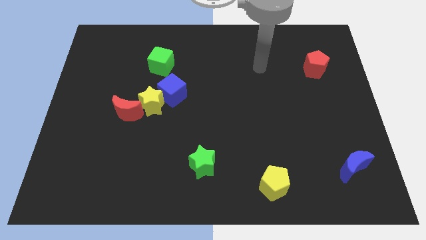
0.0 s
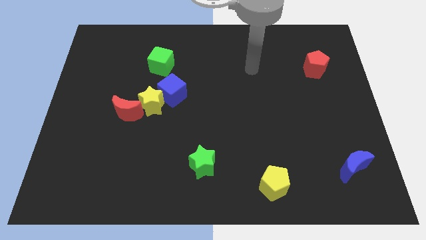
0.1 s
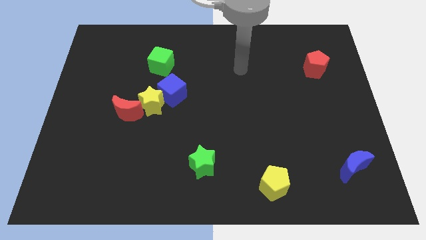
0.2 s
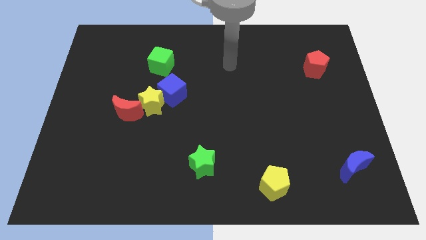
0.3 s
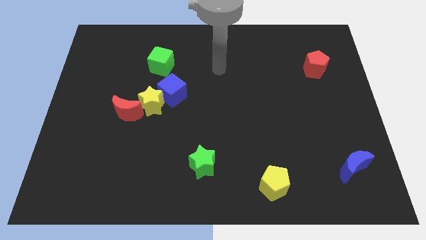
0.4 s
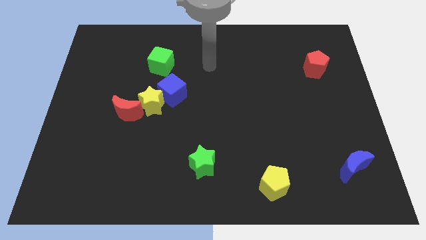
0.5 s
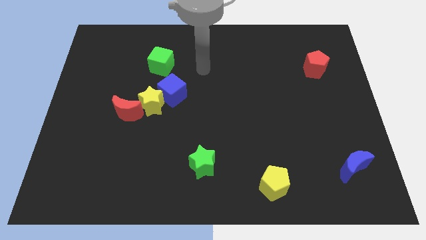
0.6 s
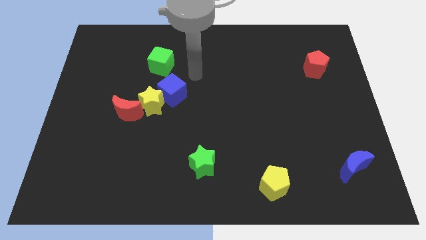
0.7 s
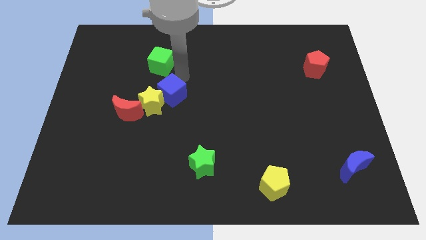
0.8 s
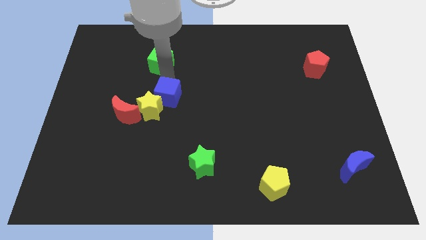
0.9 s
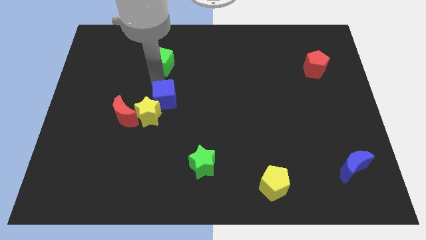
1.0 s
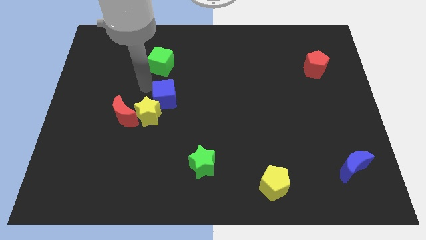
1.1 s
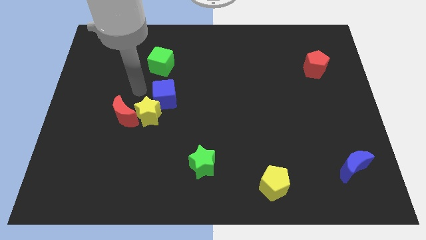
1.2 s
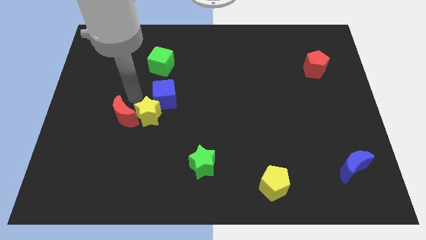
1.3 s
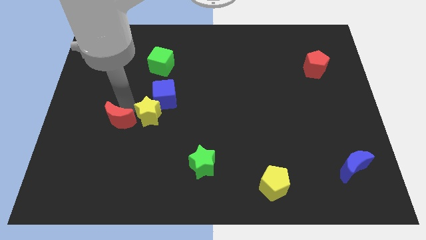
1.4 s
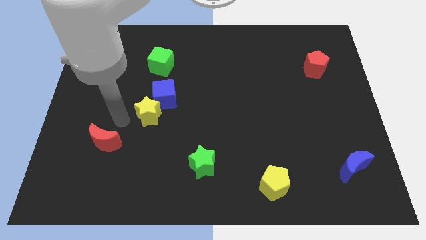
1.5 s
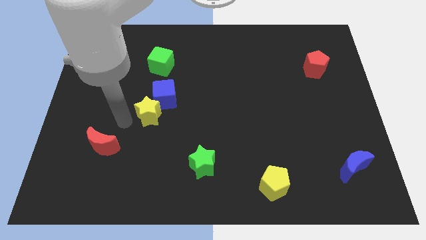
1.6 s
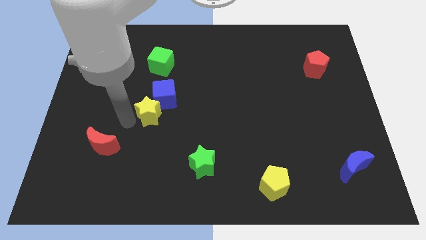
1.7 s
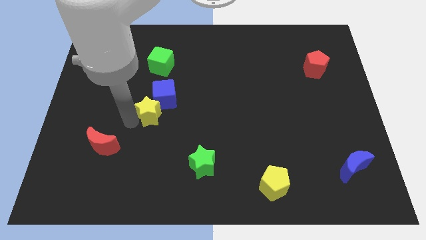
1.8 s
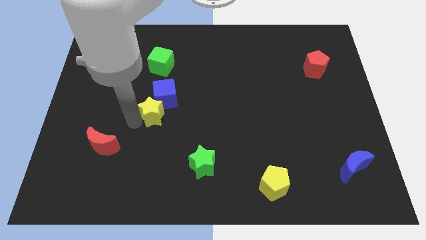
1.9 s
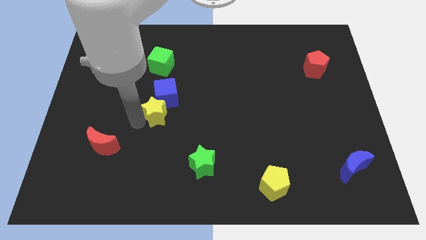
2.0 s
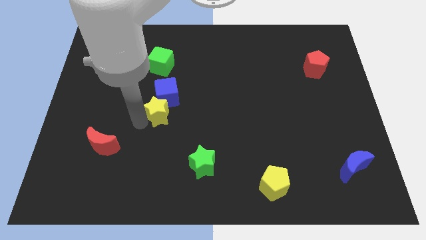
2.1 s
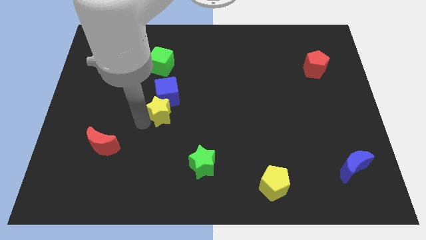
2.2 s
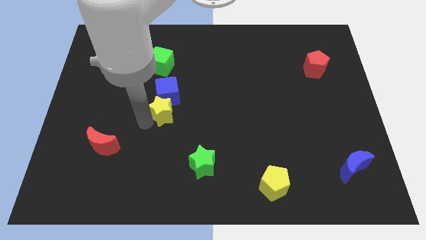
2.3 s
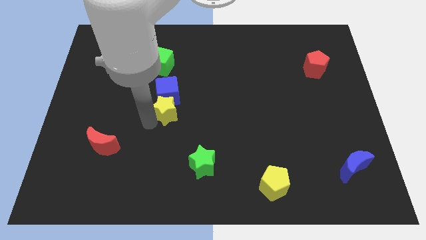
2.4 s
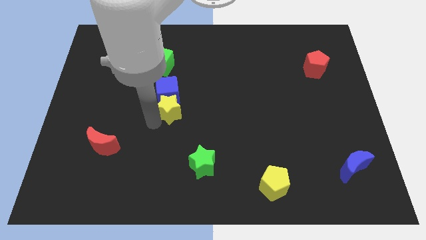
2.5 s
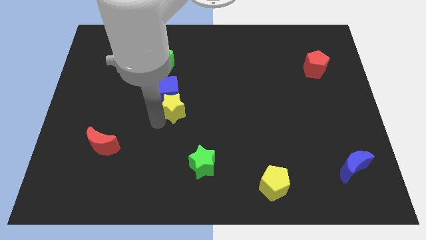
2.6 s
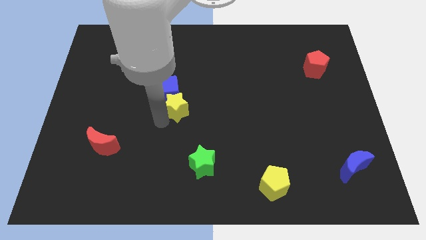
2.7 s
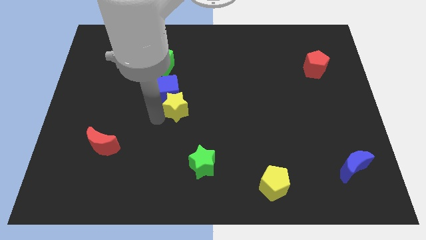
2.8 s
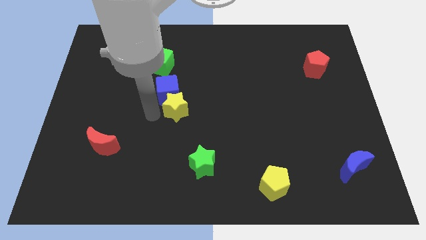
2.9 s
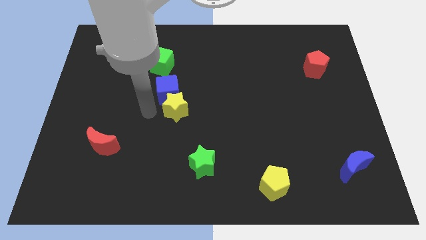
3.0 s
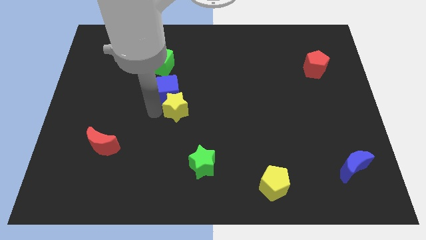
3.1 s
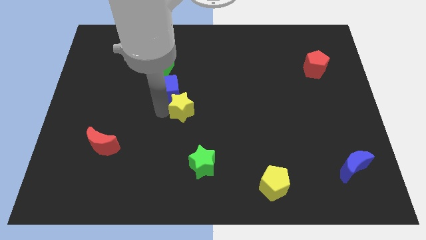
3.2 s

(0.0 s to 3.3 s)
move the yellow star to the right slightly

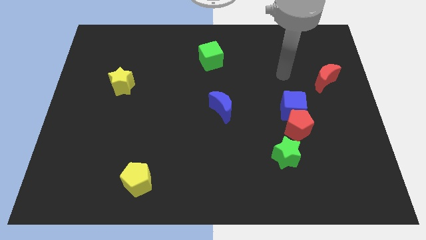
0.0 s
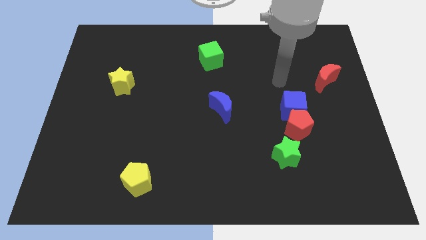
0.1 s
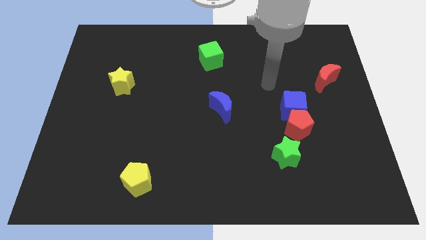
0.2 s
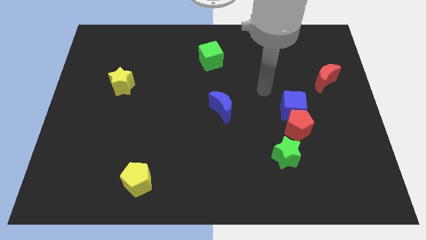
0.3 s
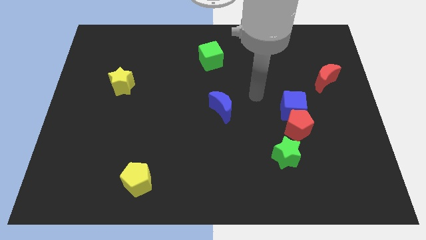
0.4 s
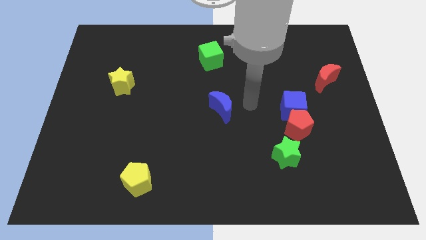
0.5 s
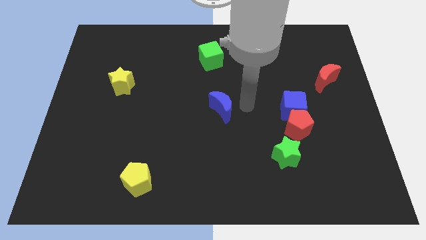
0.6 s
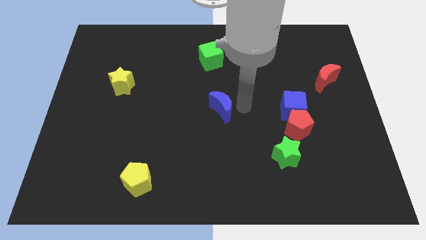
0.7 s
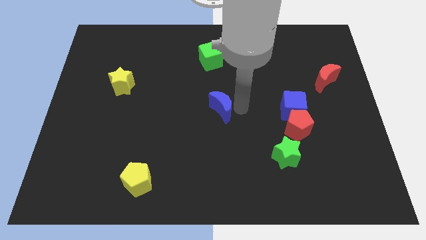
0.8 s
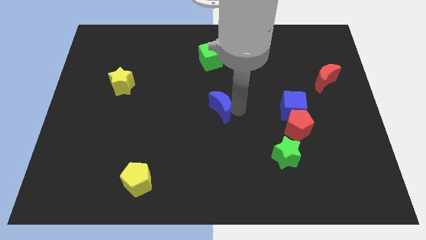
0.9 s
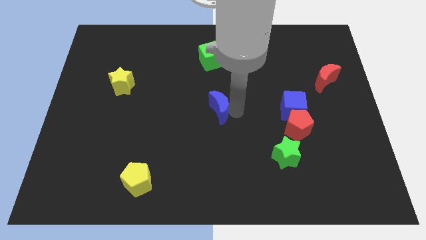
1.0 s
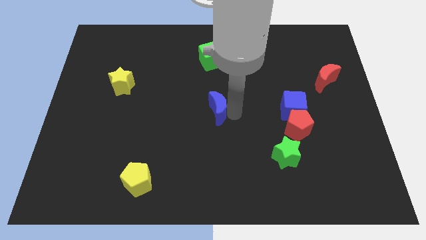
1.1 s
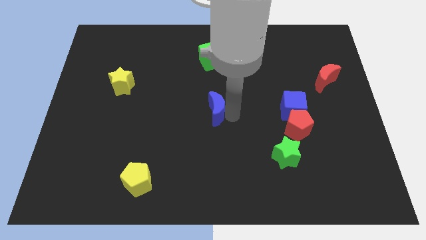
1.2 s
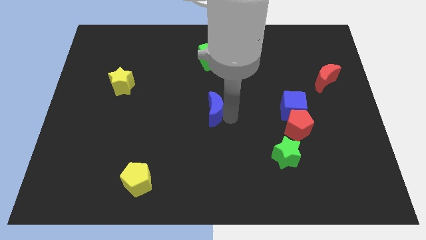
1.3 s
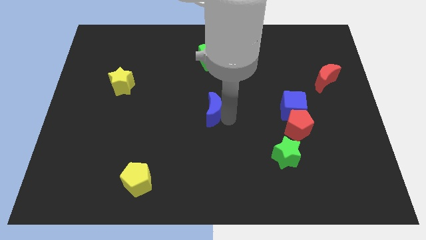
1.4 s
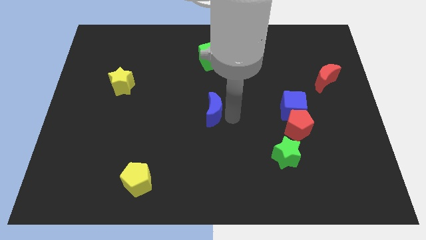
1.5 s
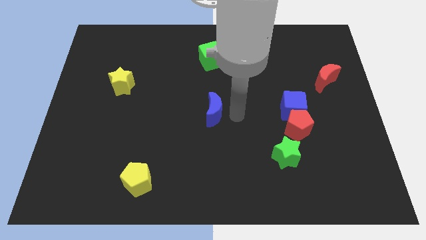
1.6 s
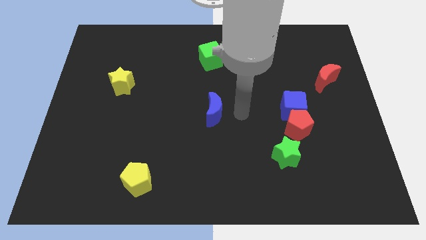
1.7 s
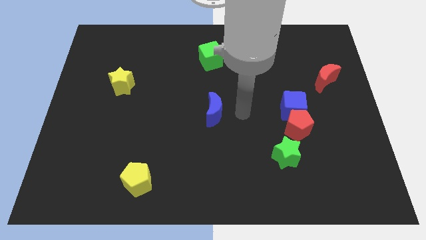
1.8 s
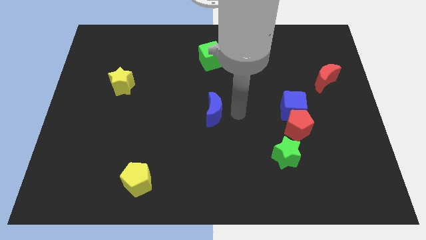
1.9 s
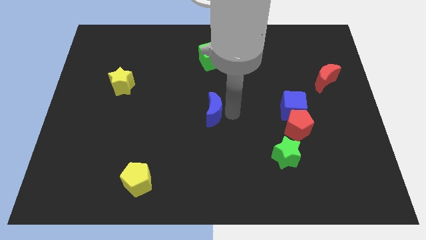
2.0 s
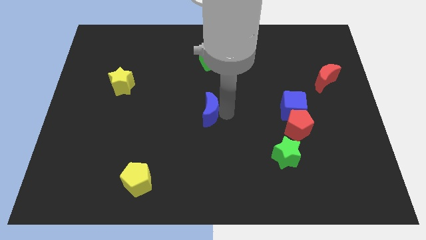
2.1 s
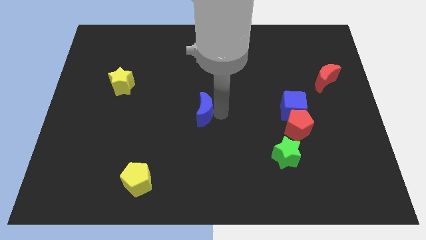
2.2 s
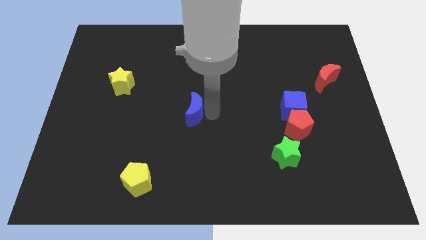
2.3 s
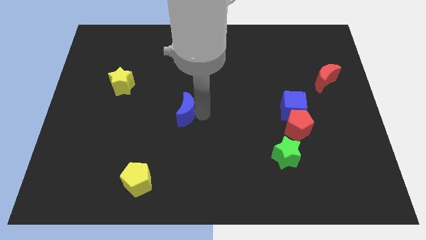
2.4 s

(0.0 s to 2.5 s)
slightly push the blue moon left

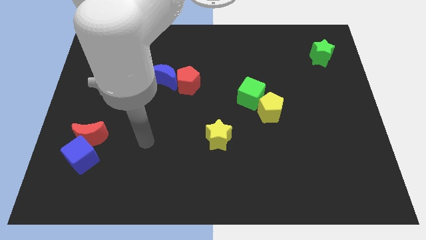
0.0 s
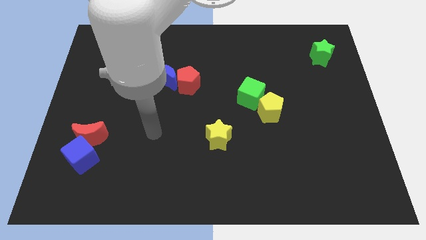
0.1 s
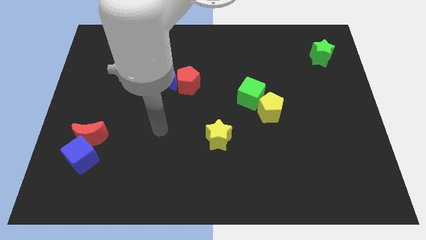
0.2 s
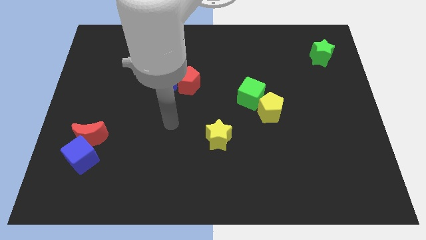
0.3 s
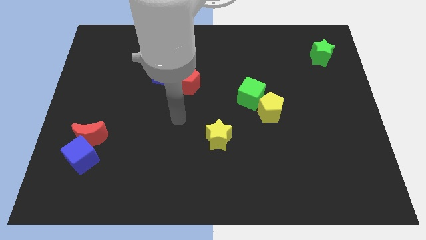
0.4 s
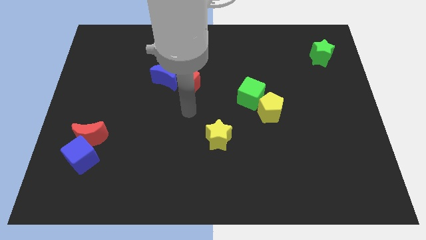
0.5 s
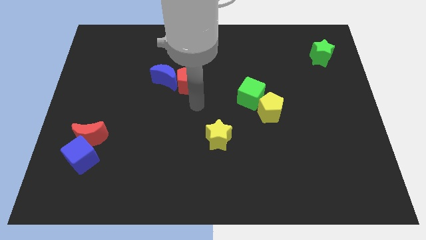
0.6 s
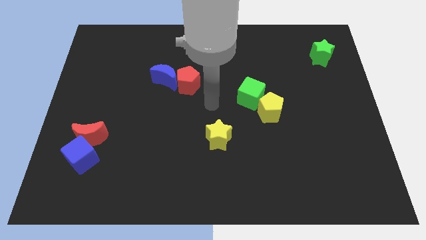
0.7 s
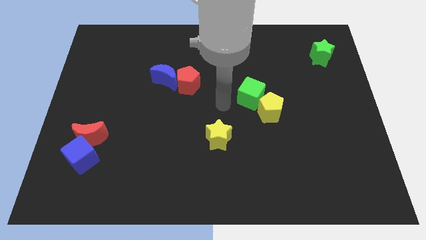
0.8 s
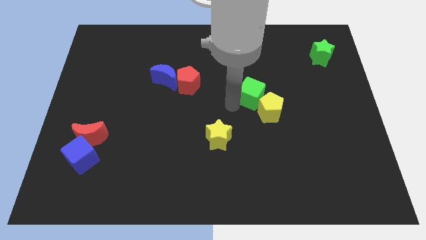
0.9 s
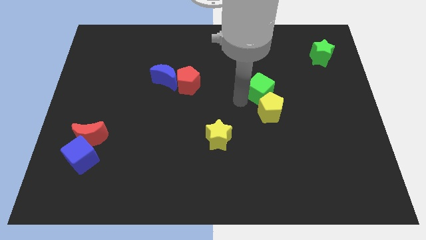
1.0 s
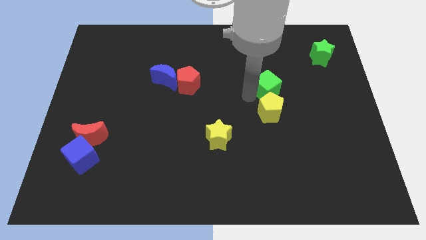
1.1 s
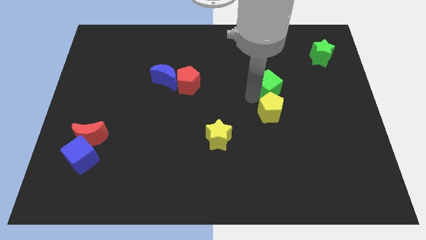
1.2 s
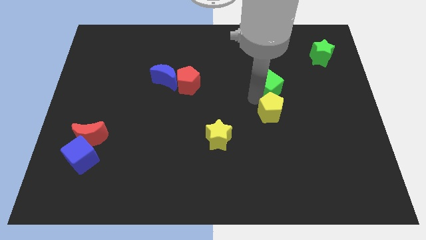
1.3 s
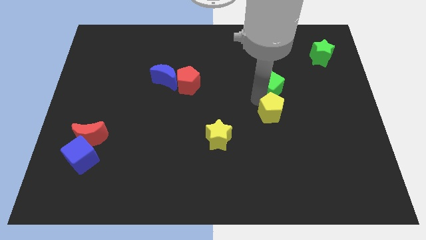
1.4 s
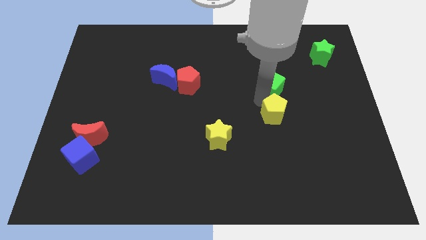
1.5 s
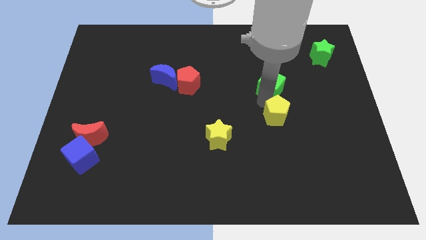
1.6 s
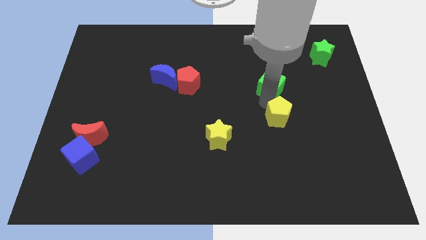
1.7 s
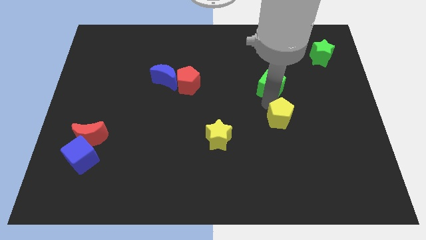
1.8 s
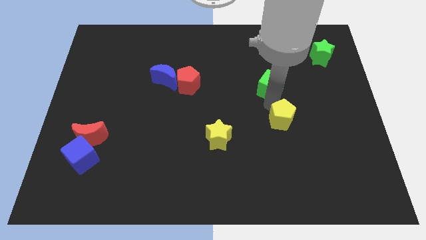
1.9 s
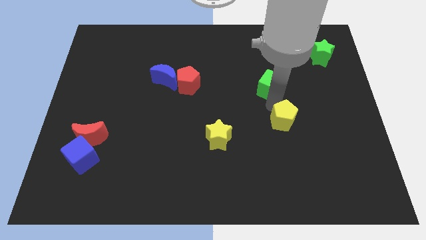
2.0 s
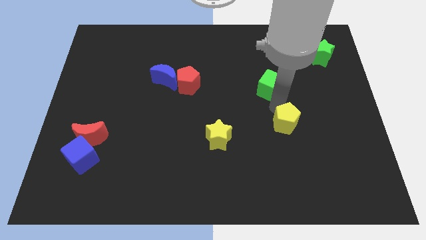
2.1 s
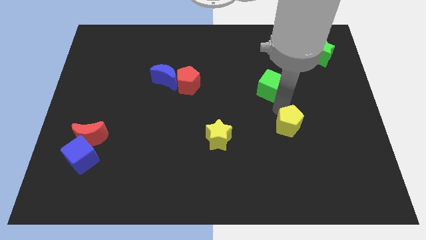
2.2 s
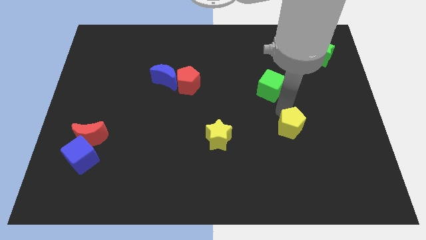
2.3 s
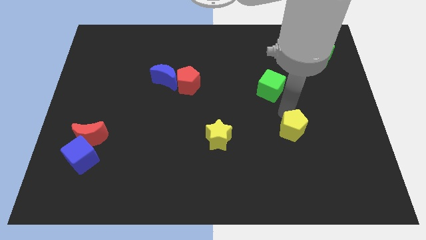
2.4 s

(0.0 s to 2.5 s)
slightly push the yellow pentagon diagonally downwards and to the right
